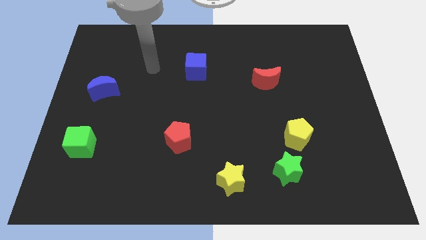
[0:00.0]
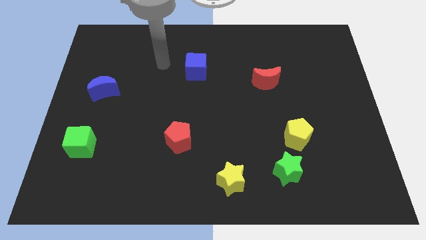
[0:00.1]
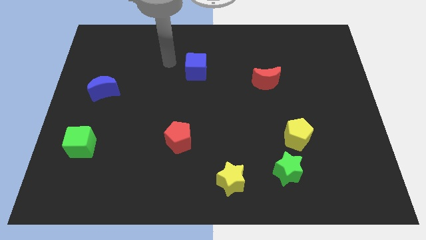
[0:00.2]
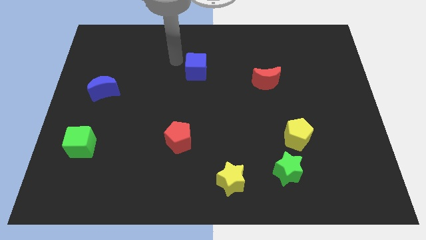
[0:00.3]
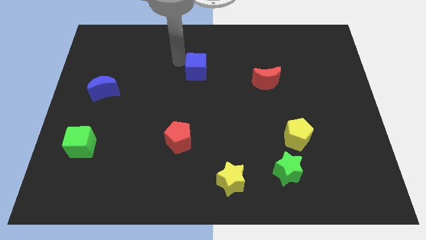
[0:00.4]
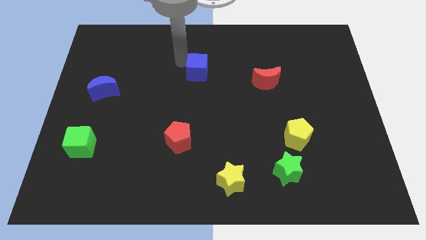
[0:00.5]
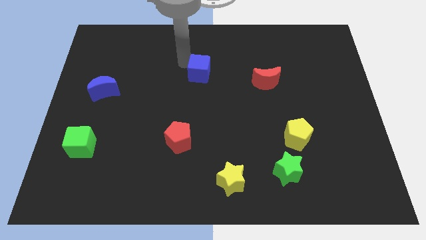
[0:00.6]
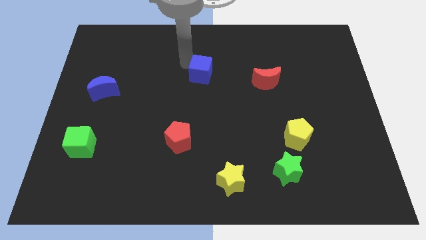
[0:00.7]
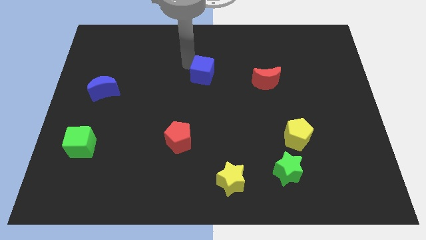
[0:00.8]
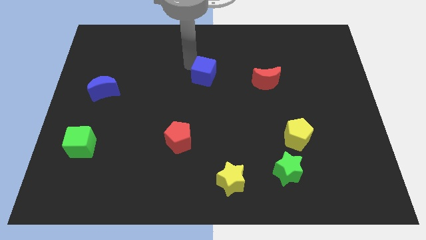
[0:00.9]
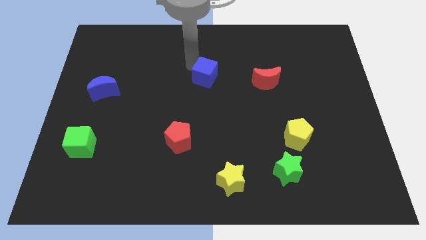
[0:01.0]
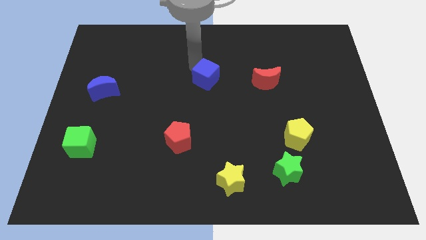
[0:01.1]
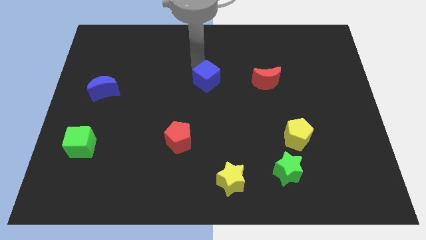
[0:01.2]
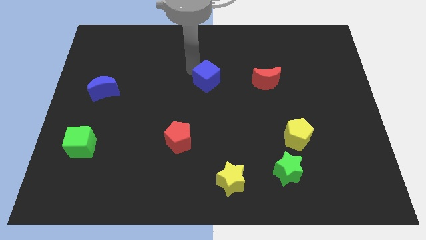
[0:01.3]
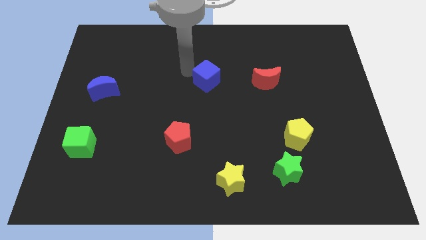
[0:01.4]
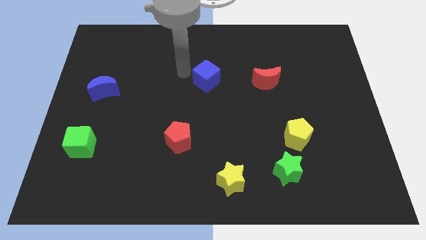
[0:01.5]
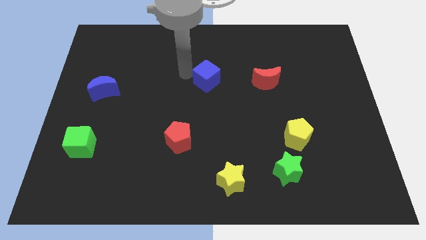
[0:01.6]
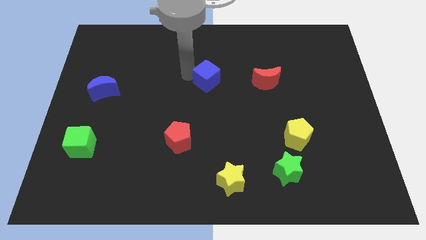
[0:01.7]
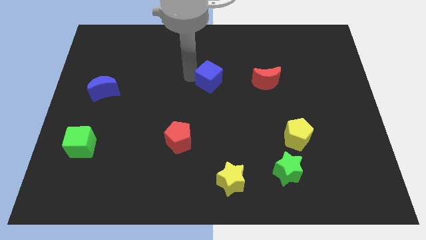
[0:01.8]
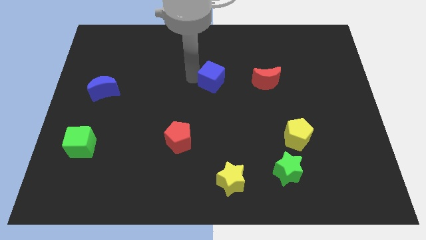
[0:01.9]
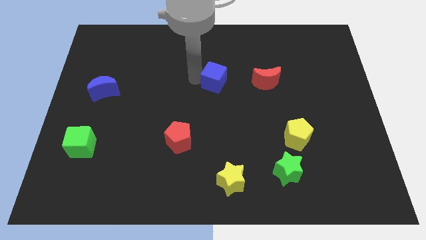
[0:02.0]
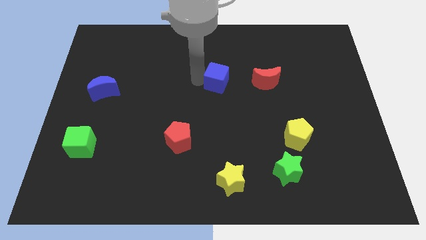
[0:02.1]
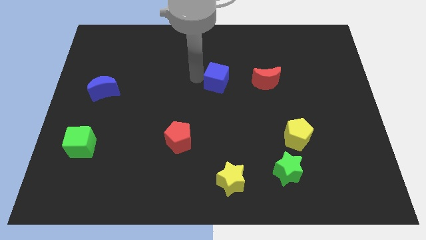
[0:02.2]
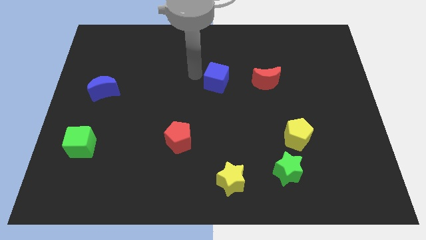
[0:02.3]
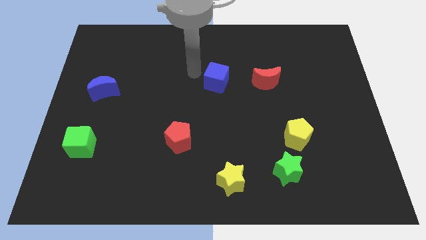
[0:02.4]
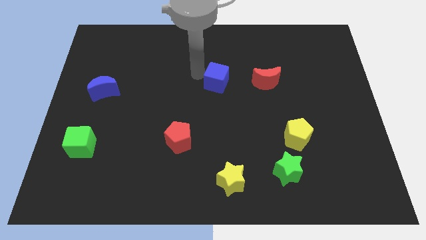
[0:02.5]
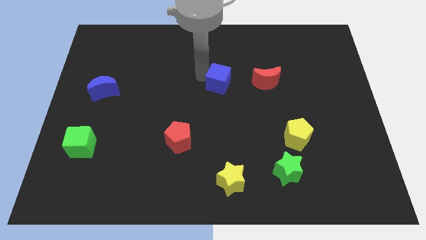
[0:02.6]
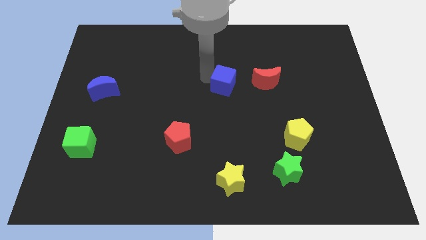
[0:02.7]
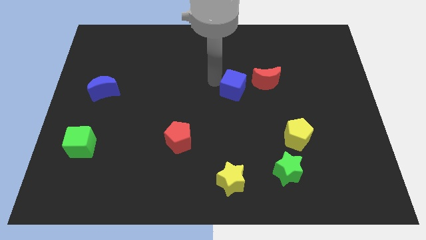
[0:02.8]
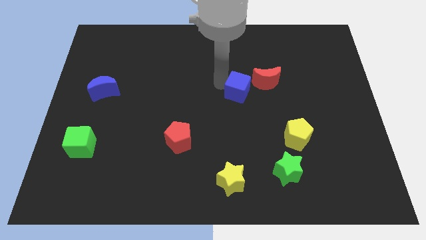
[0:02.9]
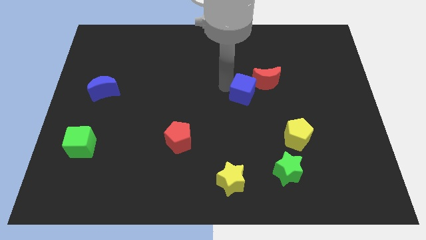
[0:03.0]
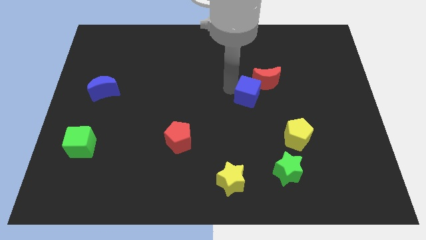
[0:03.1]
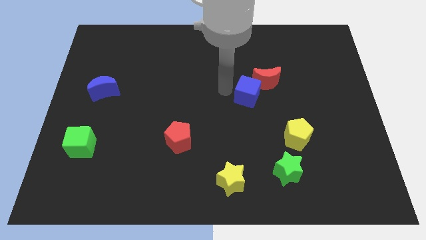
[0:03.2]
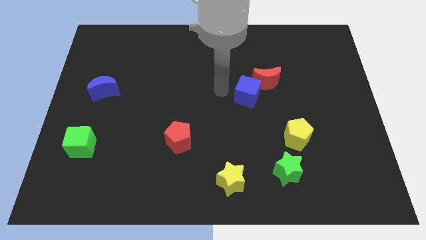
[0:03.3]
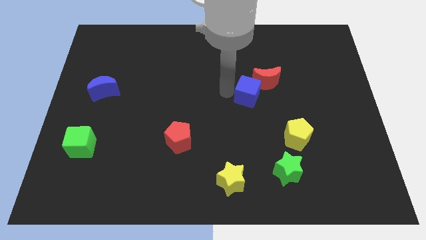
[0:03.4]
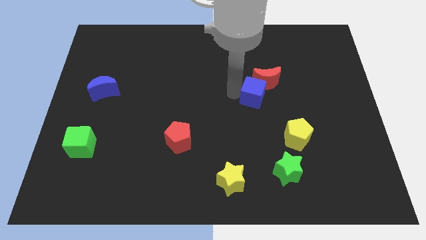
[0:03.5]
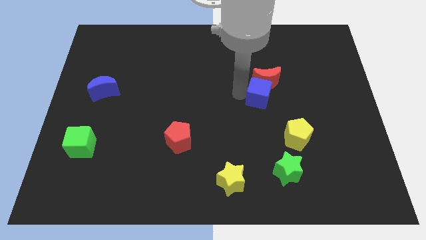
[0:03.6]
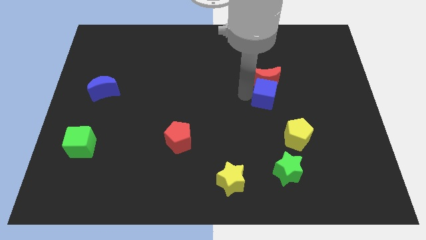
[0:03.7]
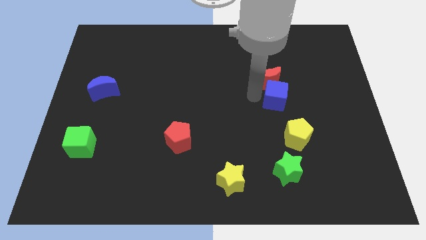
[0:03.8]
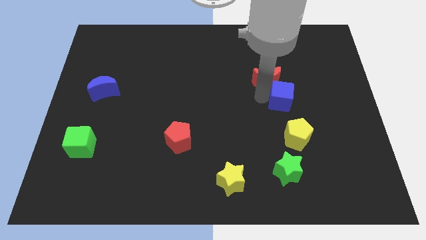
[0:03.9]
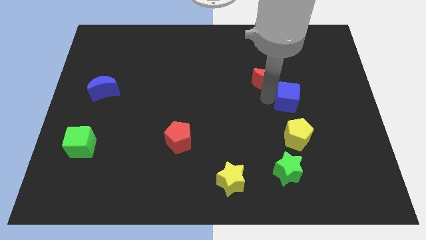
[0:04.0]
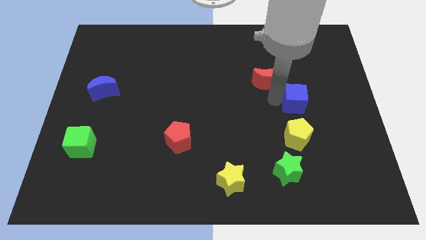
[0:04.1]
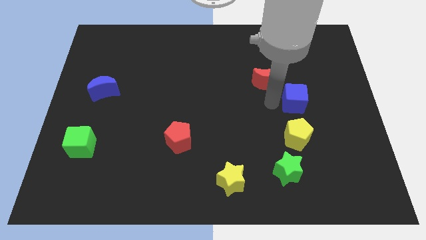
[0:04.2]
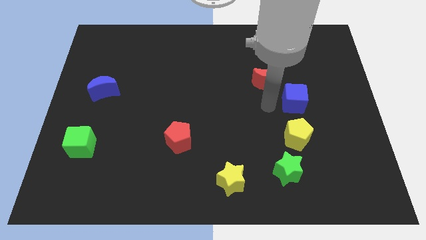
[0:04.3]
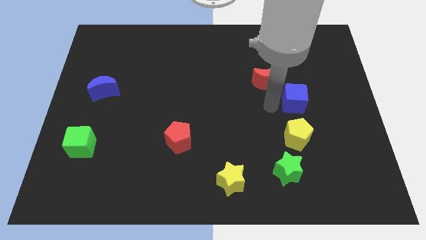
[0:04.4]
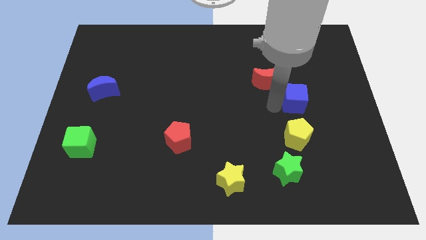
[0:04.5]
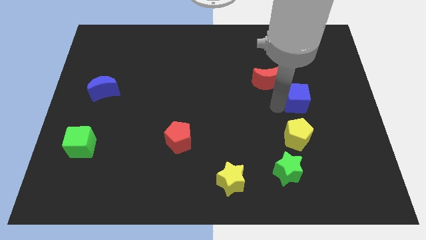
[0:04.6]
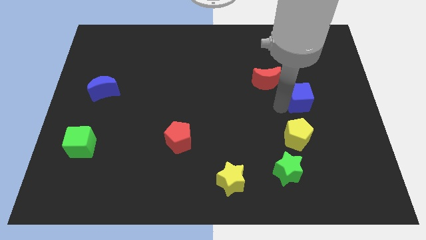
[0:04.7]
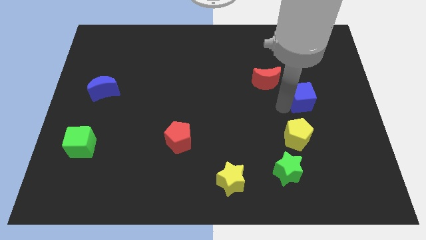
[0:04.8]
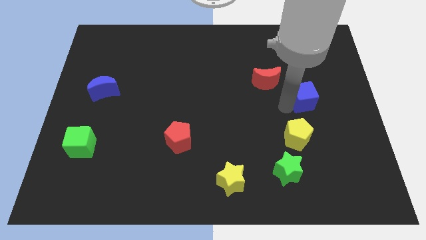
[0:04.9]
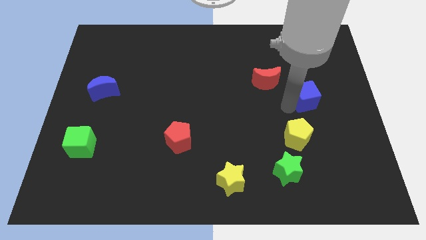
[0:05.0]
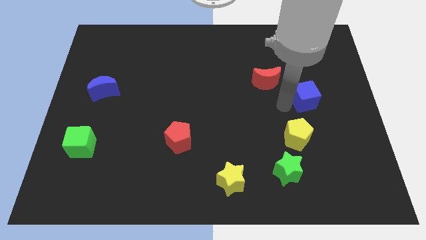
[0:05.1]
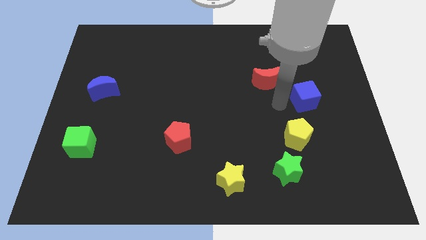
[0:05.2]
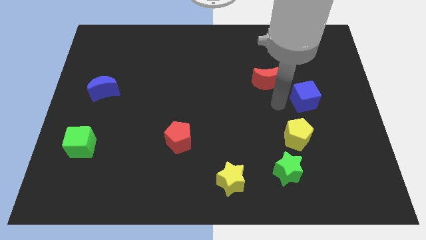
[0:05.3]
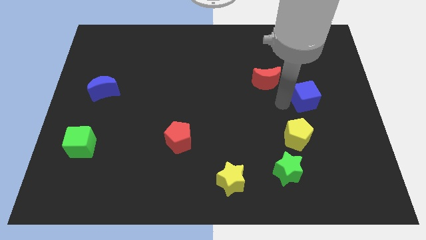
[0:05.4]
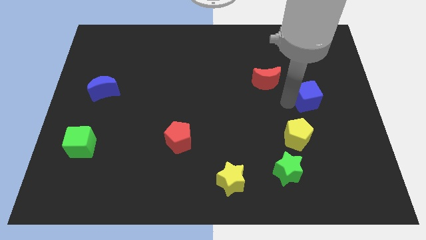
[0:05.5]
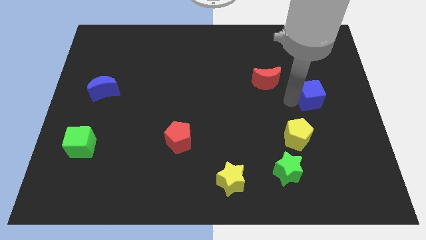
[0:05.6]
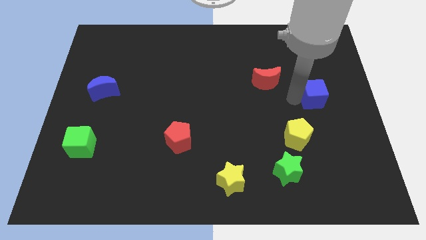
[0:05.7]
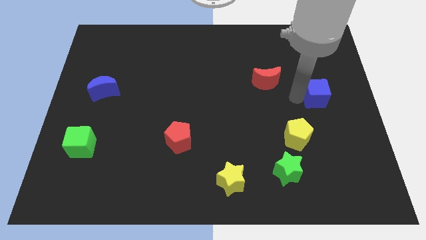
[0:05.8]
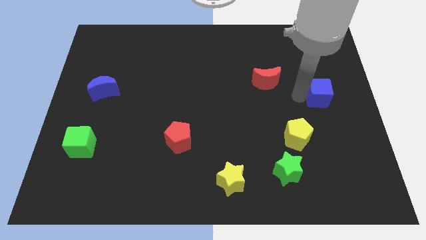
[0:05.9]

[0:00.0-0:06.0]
slide the blue cube to the right side of the board
